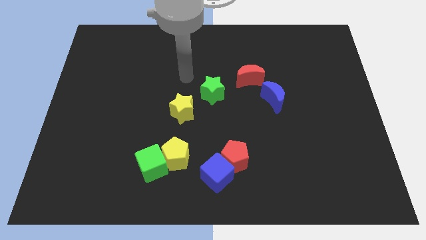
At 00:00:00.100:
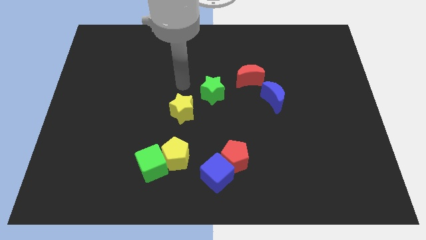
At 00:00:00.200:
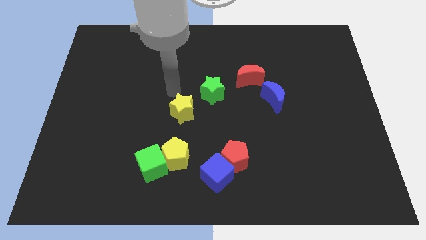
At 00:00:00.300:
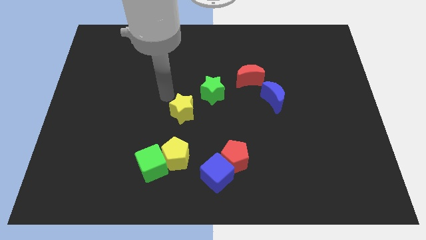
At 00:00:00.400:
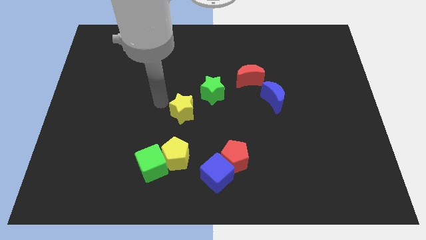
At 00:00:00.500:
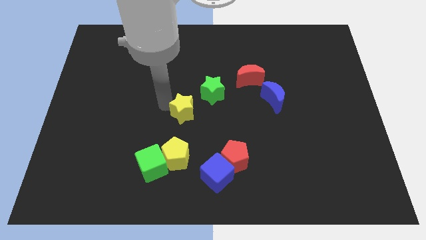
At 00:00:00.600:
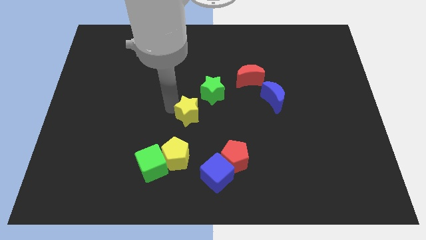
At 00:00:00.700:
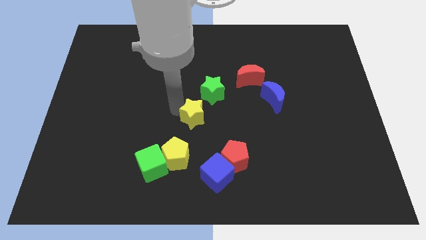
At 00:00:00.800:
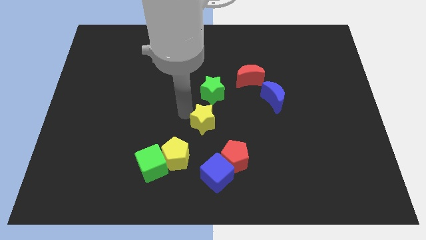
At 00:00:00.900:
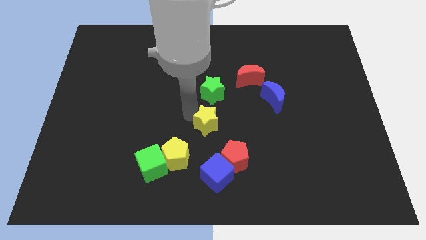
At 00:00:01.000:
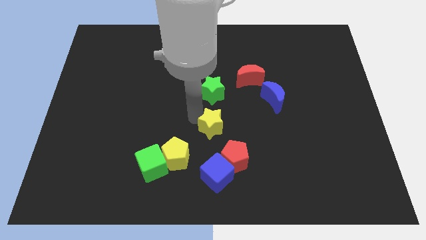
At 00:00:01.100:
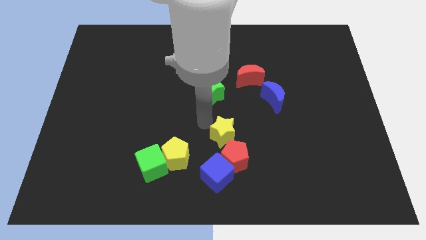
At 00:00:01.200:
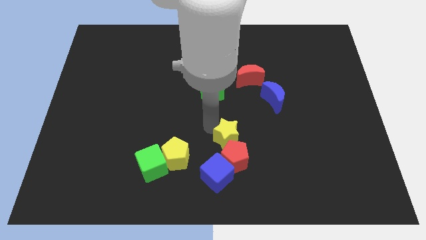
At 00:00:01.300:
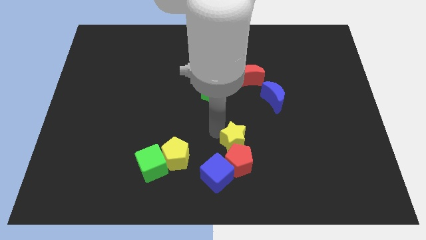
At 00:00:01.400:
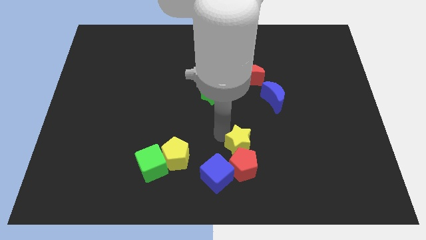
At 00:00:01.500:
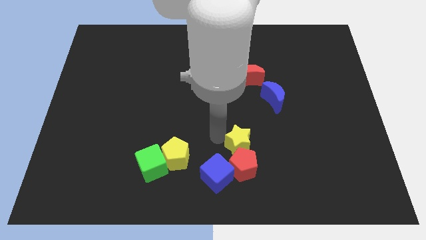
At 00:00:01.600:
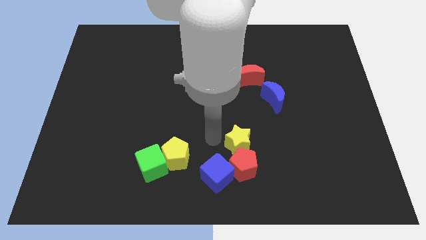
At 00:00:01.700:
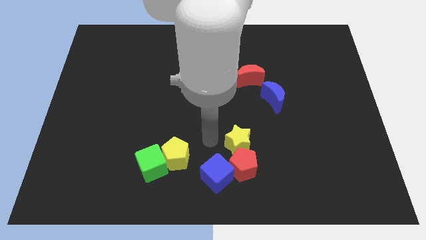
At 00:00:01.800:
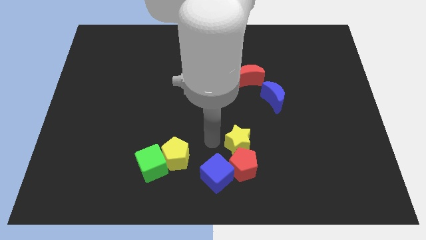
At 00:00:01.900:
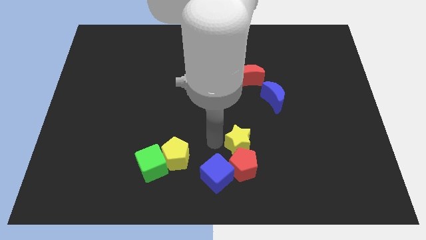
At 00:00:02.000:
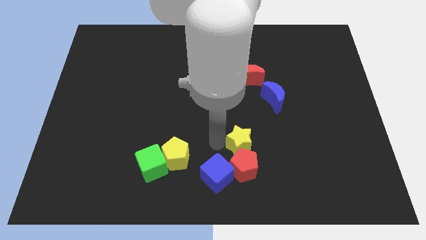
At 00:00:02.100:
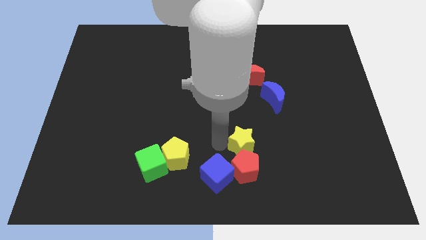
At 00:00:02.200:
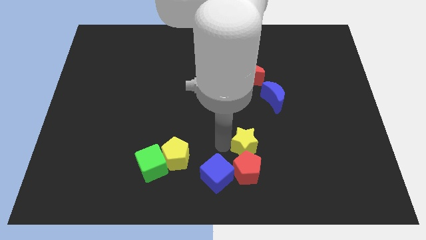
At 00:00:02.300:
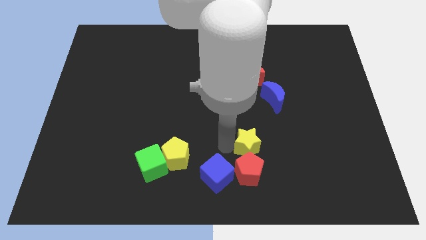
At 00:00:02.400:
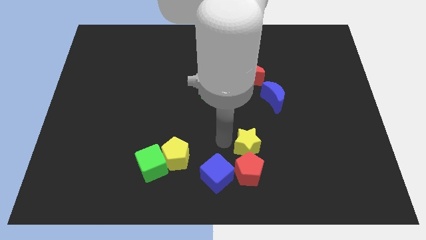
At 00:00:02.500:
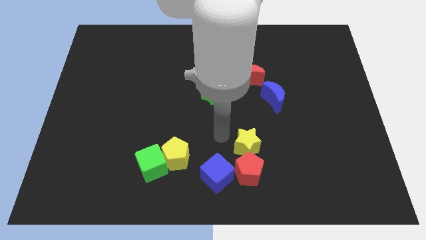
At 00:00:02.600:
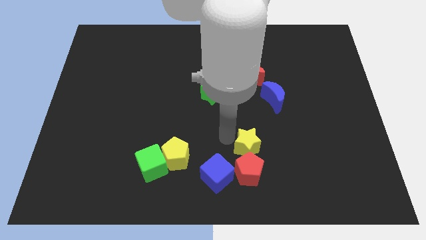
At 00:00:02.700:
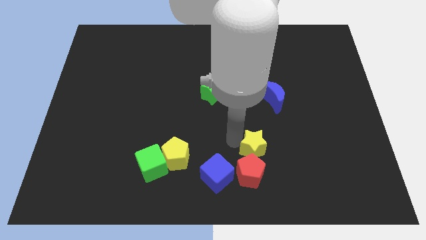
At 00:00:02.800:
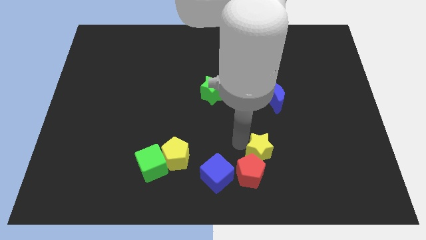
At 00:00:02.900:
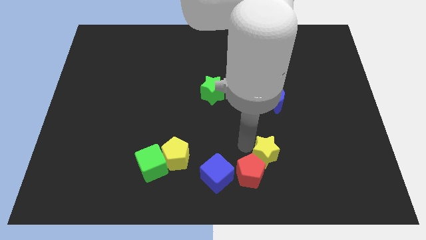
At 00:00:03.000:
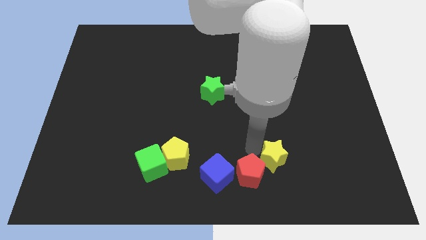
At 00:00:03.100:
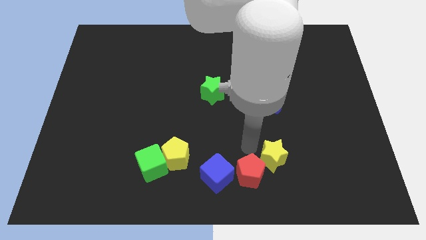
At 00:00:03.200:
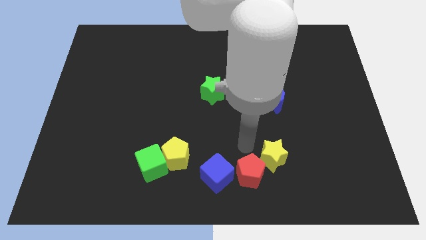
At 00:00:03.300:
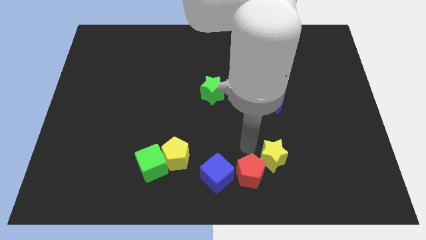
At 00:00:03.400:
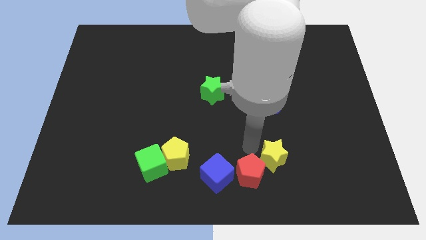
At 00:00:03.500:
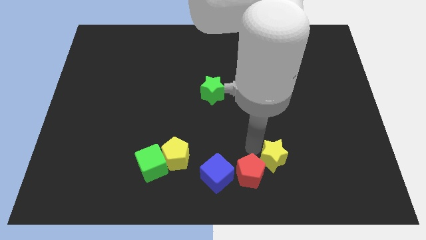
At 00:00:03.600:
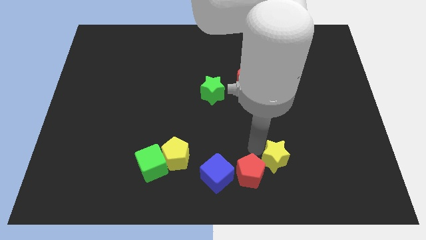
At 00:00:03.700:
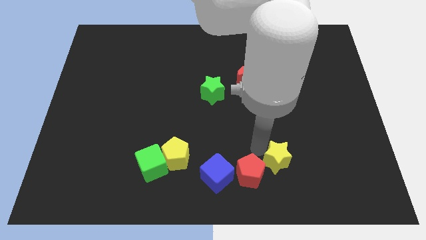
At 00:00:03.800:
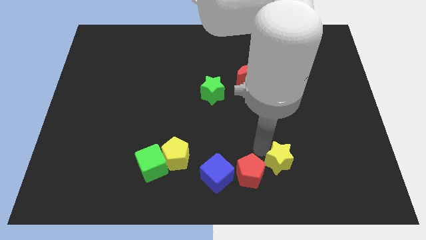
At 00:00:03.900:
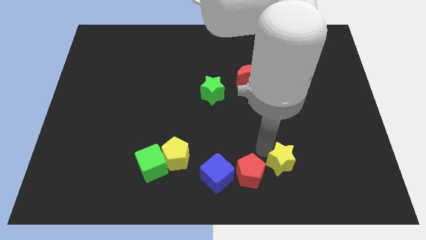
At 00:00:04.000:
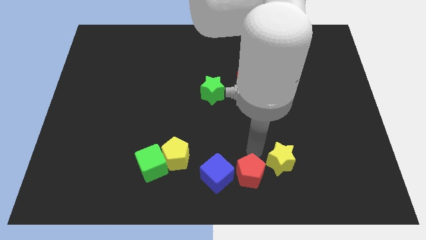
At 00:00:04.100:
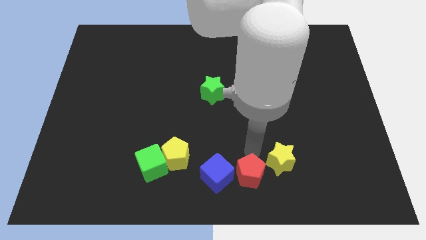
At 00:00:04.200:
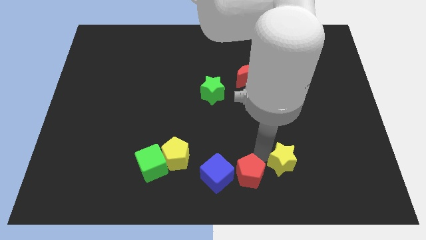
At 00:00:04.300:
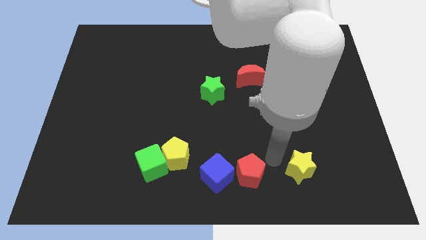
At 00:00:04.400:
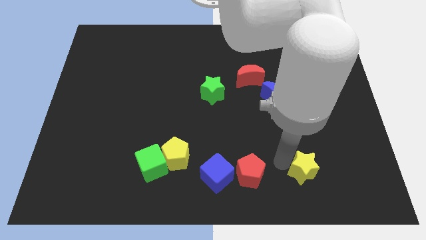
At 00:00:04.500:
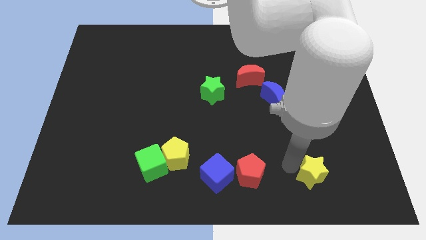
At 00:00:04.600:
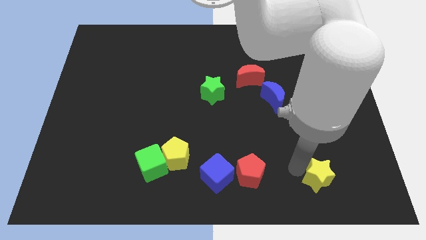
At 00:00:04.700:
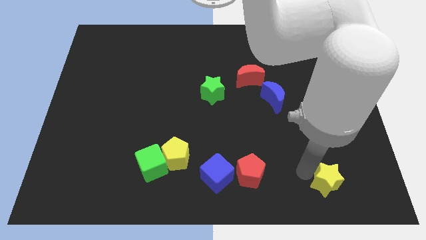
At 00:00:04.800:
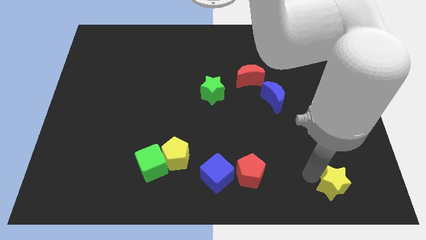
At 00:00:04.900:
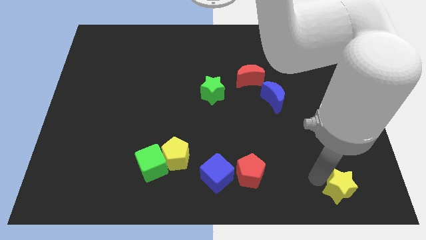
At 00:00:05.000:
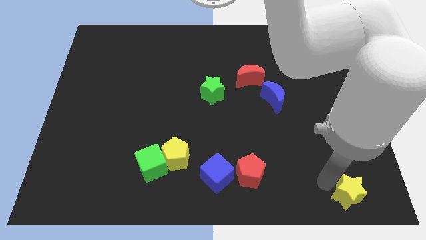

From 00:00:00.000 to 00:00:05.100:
push the yellow star to the lower right corner

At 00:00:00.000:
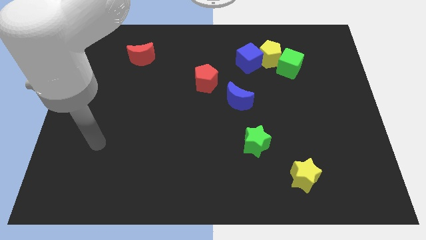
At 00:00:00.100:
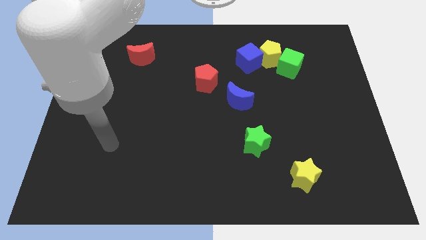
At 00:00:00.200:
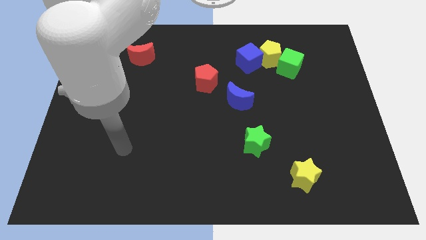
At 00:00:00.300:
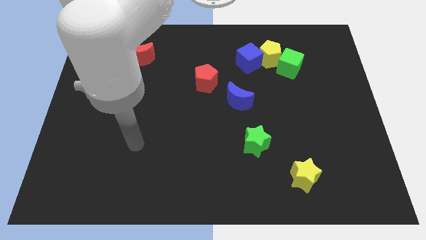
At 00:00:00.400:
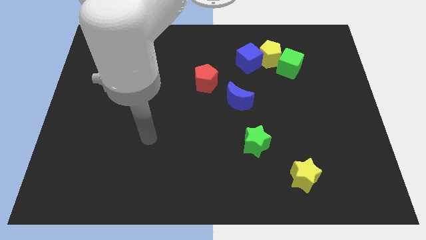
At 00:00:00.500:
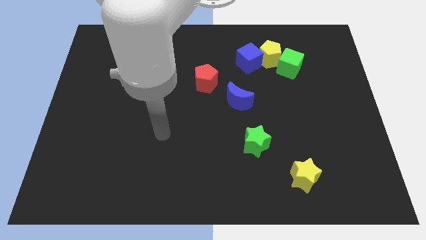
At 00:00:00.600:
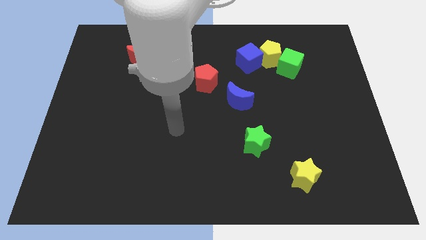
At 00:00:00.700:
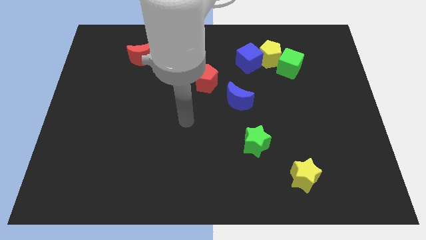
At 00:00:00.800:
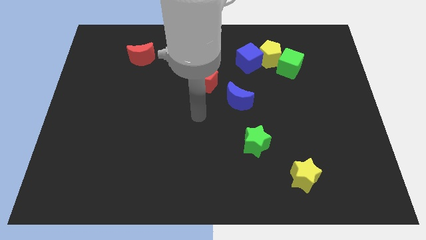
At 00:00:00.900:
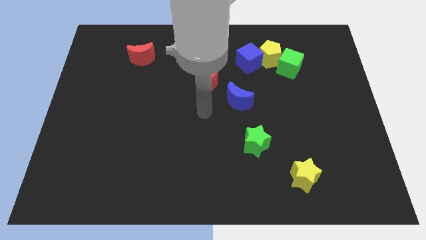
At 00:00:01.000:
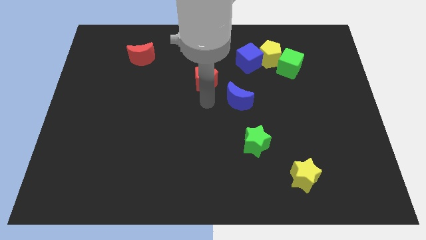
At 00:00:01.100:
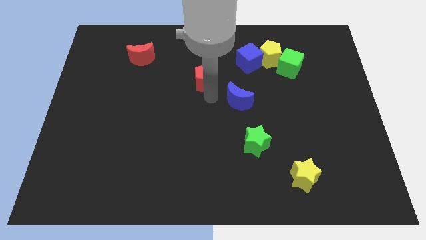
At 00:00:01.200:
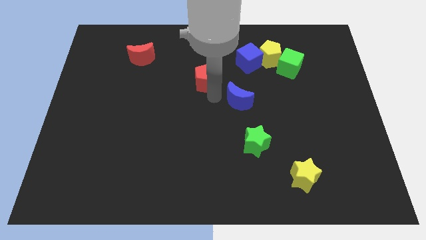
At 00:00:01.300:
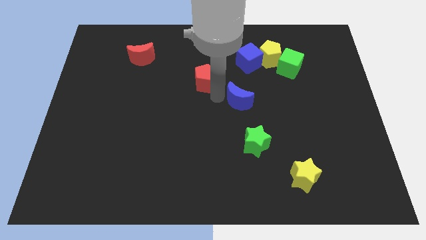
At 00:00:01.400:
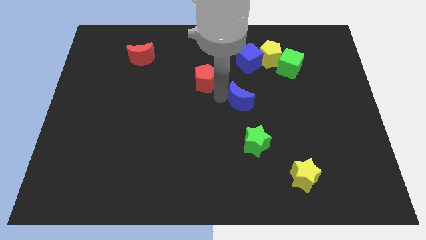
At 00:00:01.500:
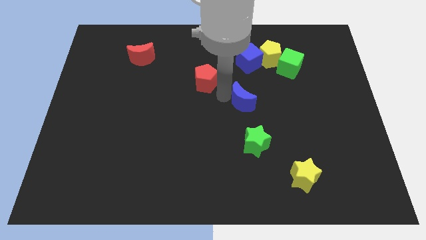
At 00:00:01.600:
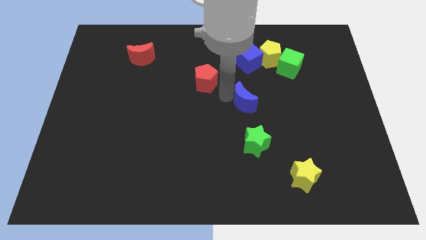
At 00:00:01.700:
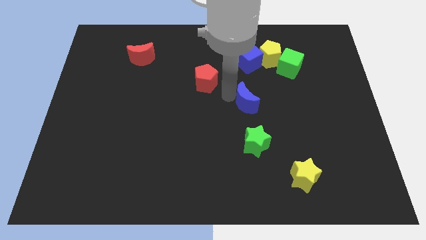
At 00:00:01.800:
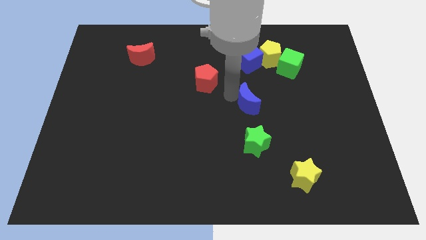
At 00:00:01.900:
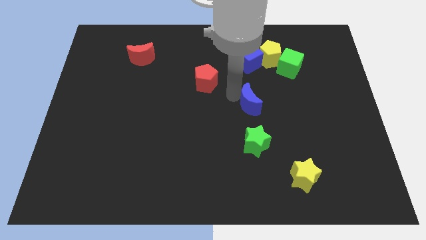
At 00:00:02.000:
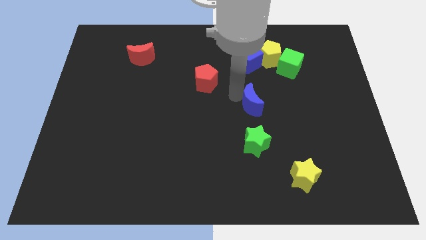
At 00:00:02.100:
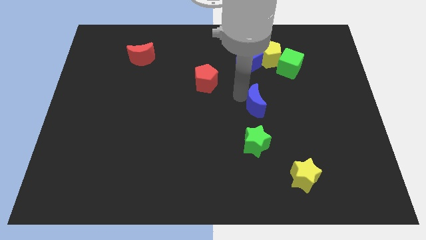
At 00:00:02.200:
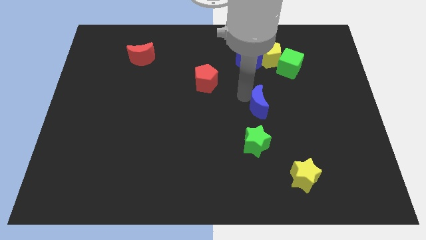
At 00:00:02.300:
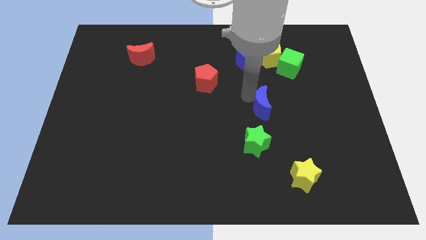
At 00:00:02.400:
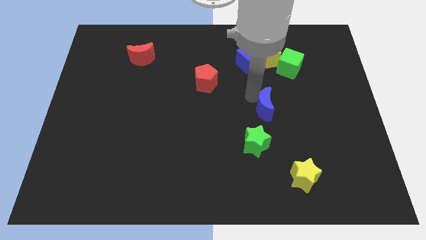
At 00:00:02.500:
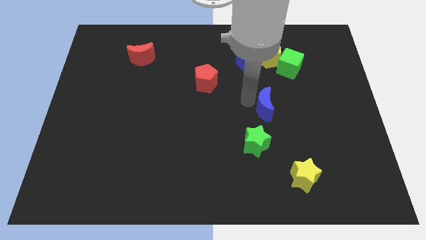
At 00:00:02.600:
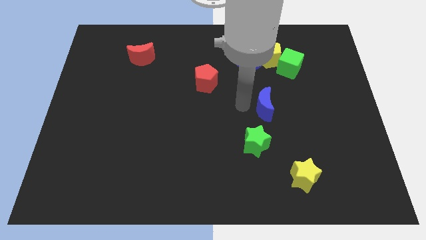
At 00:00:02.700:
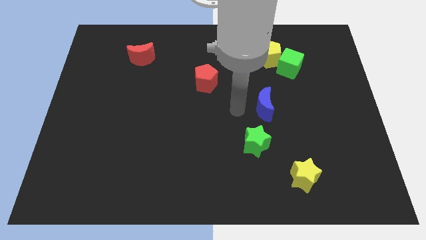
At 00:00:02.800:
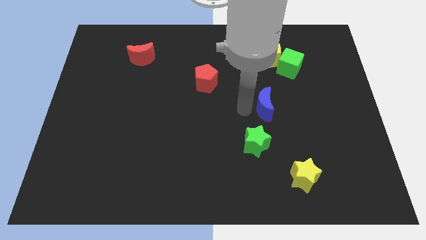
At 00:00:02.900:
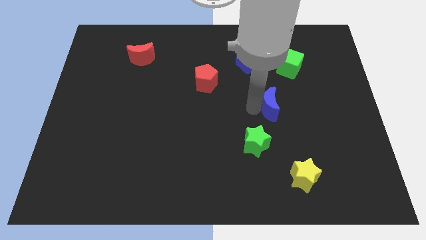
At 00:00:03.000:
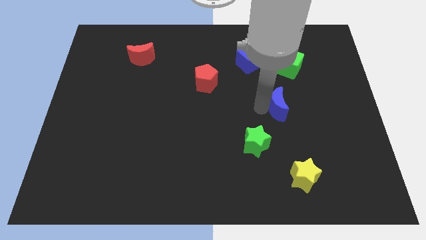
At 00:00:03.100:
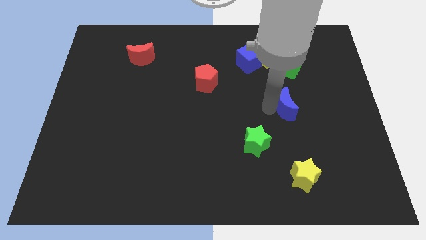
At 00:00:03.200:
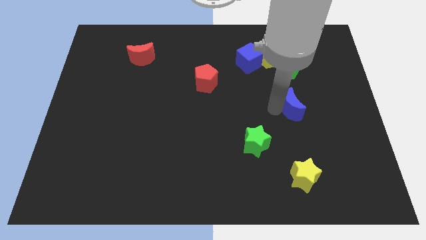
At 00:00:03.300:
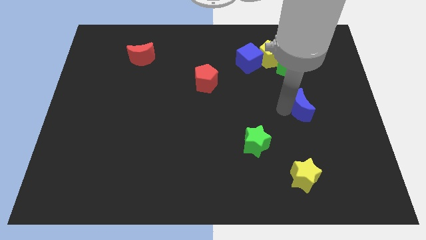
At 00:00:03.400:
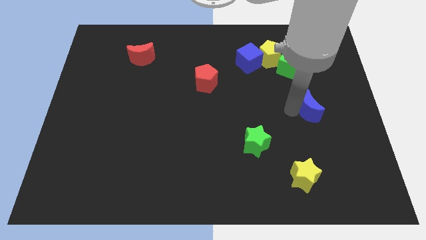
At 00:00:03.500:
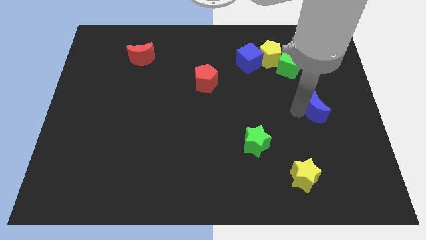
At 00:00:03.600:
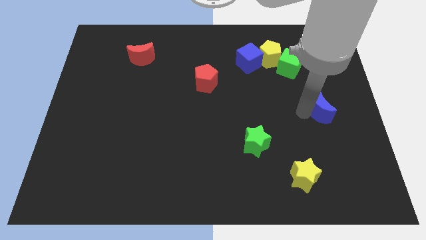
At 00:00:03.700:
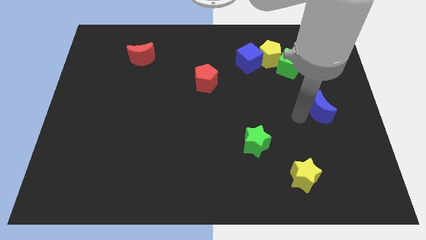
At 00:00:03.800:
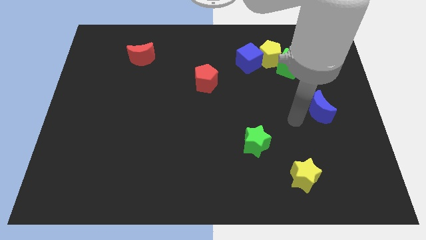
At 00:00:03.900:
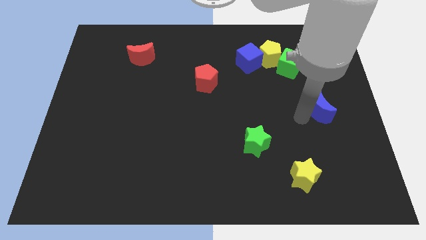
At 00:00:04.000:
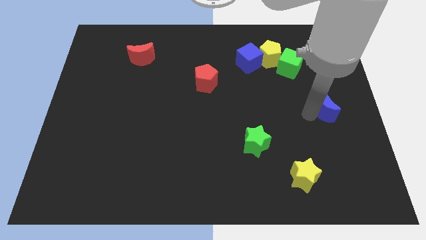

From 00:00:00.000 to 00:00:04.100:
put the blue moon to the center right
